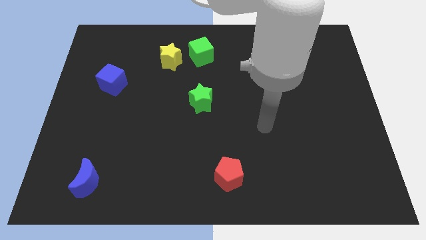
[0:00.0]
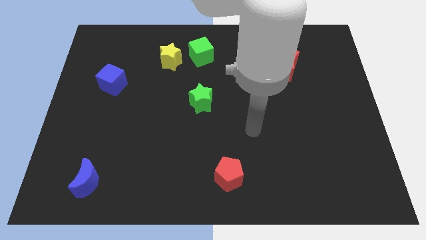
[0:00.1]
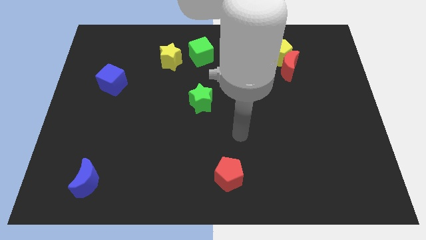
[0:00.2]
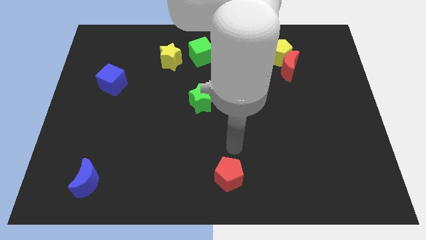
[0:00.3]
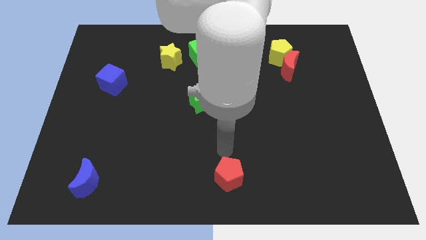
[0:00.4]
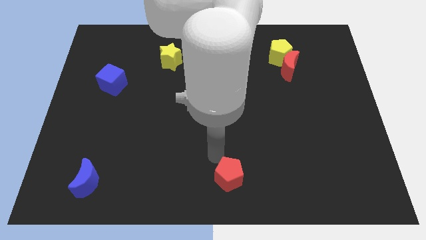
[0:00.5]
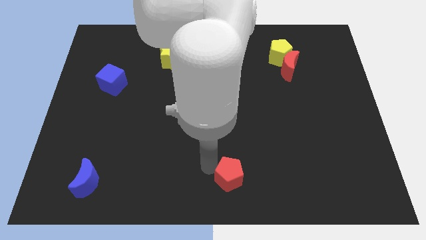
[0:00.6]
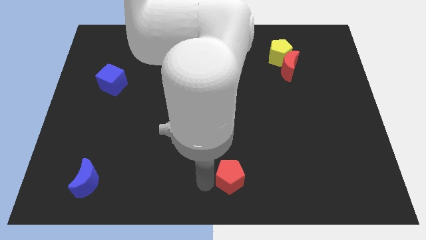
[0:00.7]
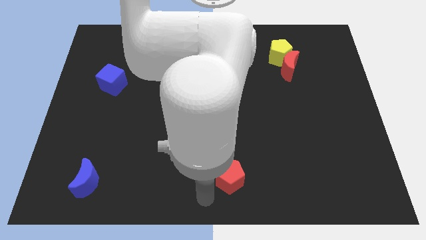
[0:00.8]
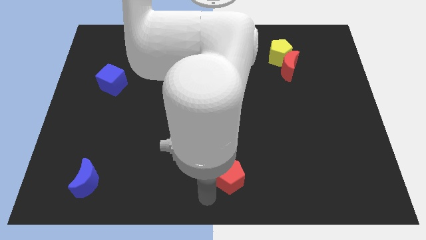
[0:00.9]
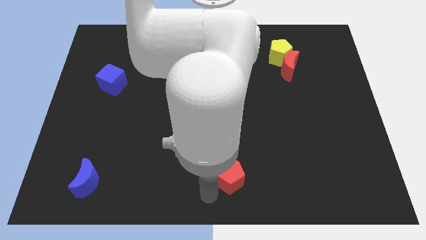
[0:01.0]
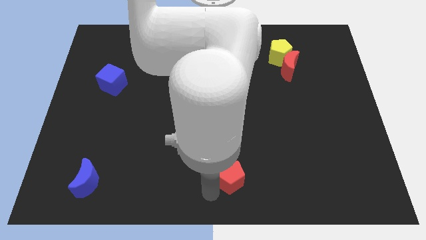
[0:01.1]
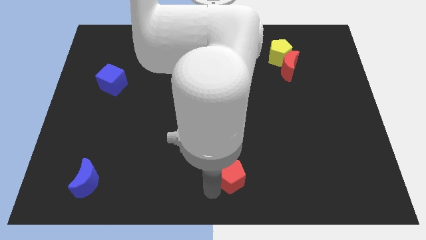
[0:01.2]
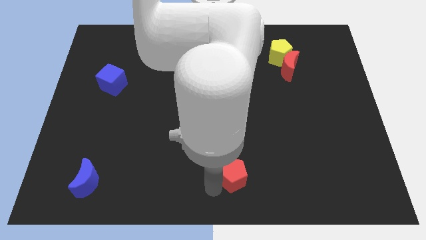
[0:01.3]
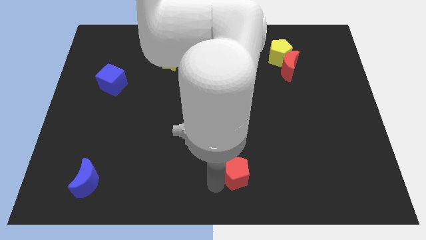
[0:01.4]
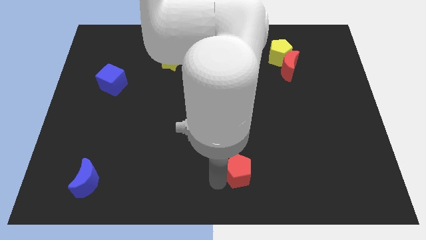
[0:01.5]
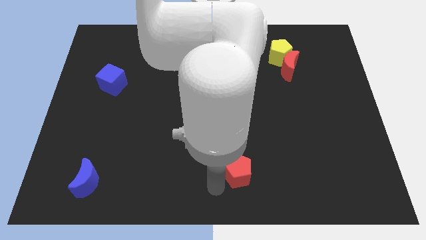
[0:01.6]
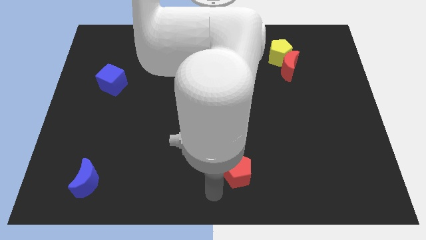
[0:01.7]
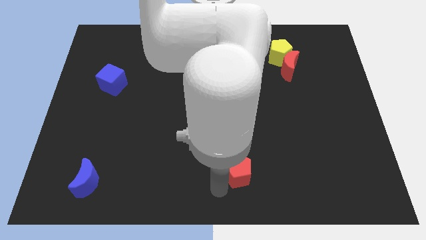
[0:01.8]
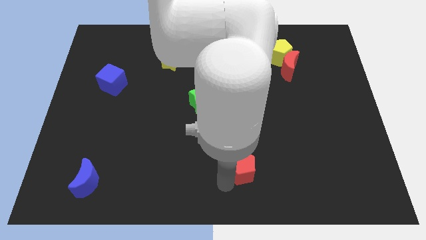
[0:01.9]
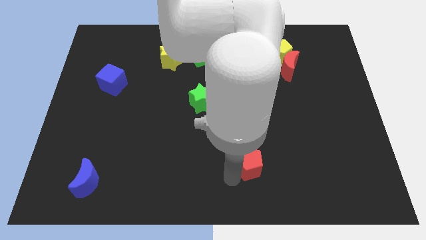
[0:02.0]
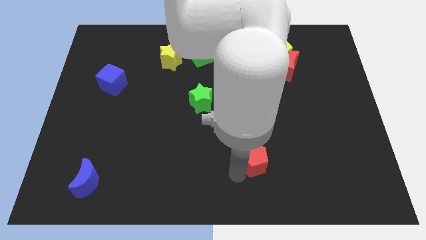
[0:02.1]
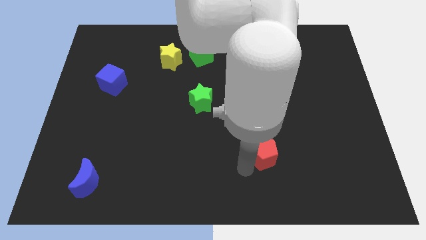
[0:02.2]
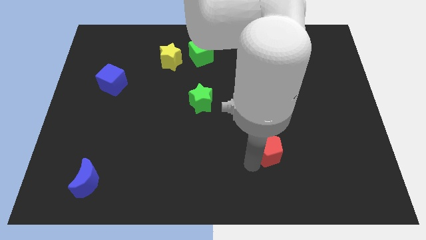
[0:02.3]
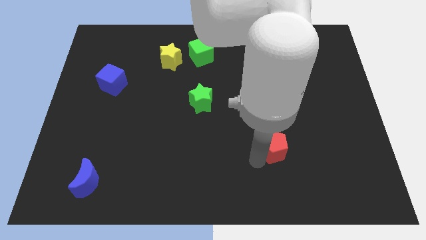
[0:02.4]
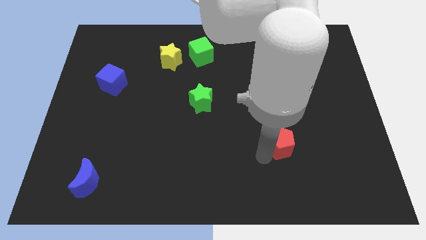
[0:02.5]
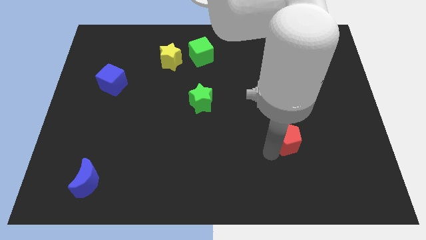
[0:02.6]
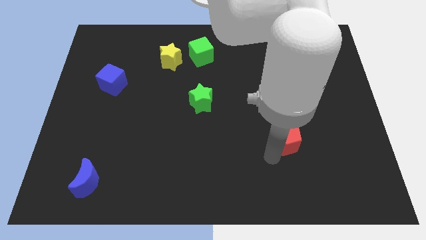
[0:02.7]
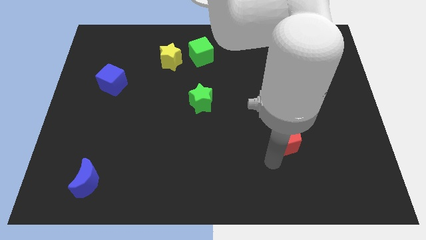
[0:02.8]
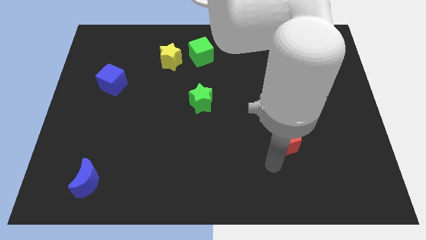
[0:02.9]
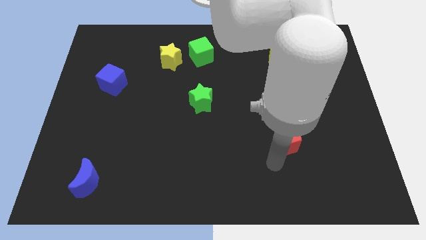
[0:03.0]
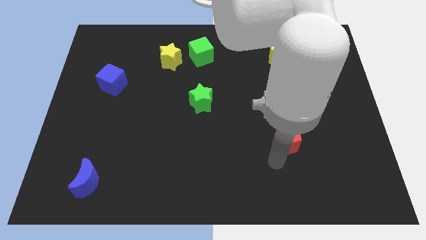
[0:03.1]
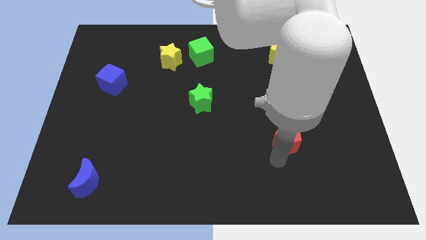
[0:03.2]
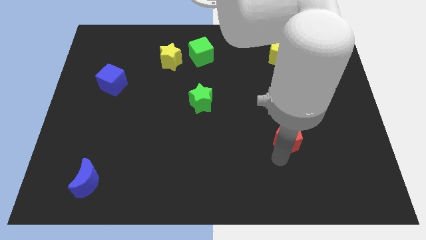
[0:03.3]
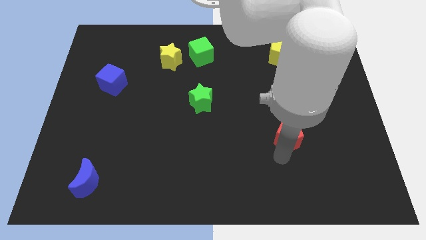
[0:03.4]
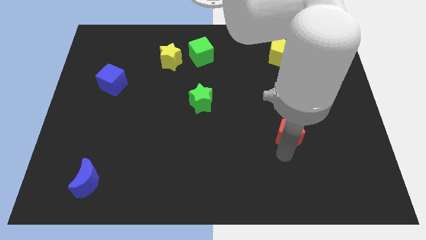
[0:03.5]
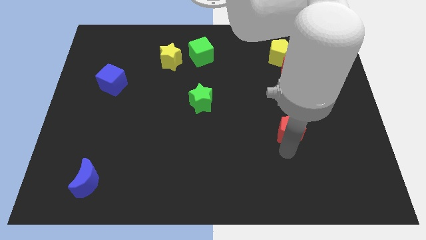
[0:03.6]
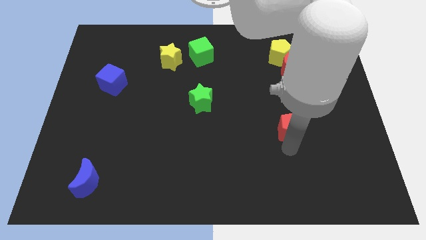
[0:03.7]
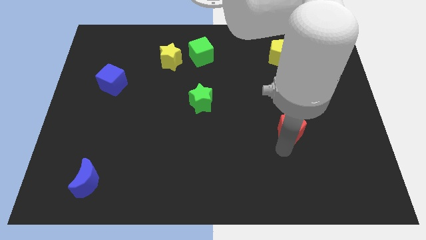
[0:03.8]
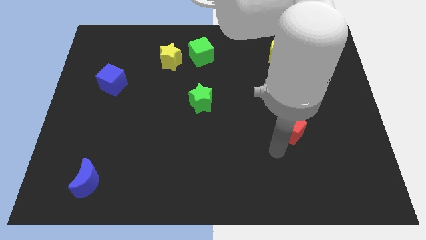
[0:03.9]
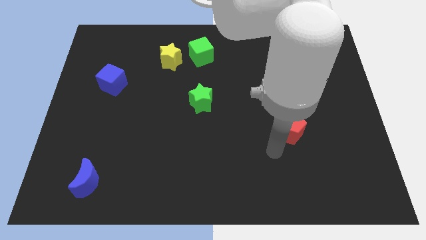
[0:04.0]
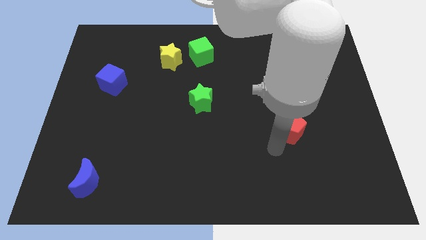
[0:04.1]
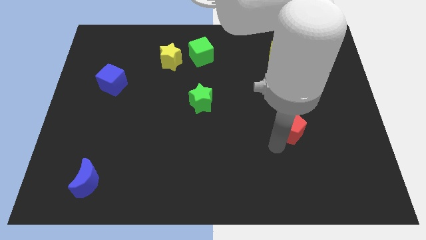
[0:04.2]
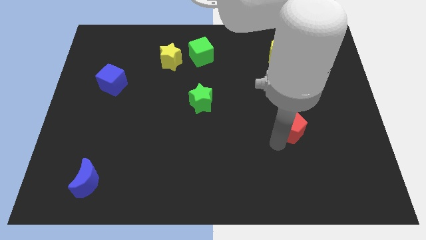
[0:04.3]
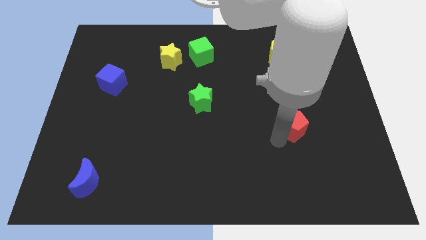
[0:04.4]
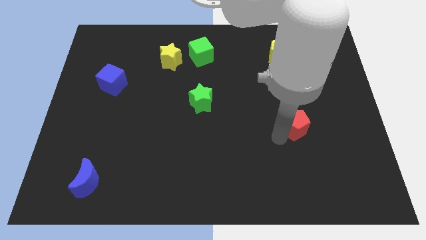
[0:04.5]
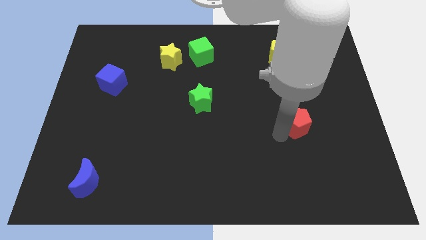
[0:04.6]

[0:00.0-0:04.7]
slide the red pentagon diagonally up and to the right

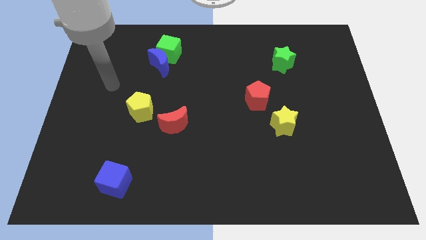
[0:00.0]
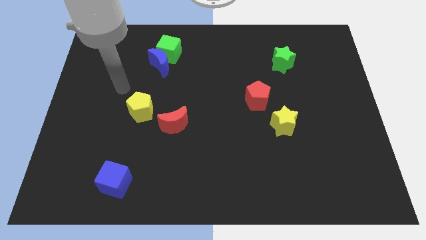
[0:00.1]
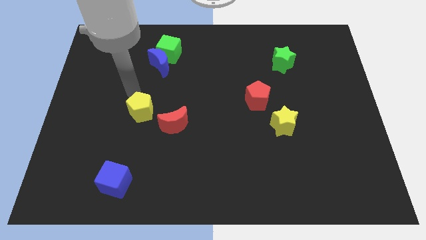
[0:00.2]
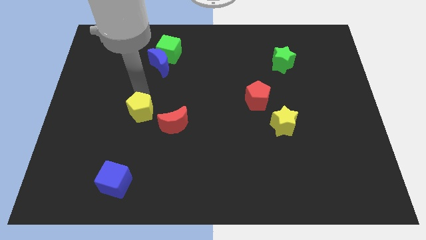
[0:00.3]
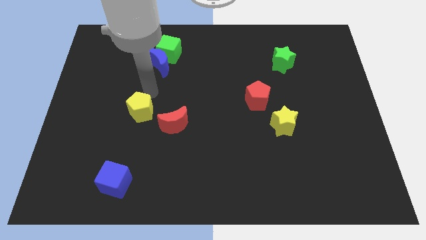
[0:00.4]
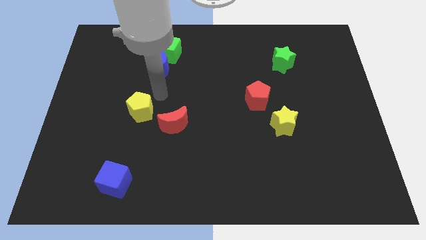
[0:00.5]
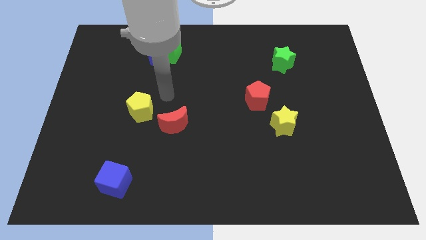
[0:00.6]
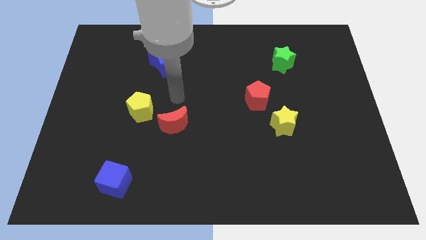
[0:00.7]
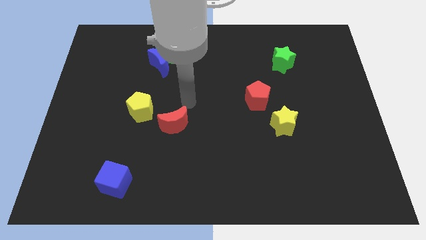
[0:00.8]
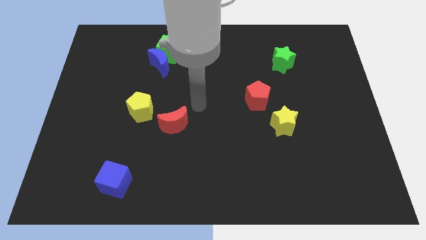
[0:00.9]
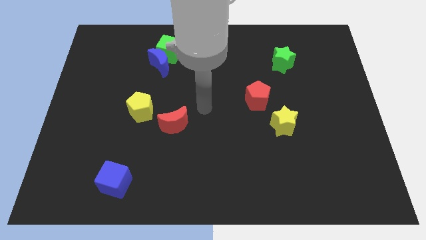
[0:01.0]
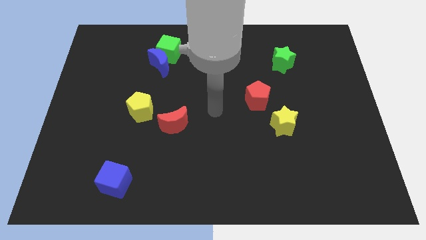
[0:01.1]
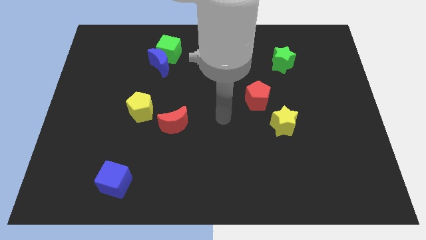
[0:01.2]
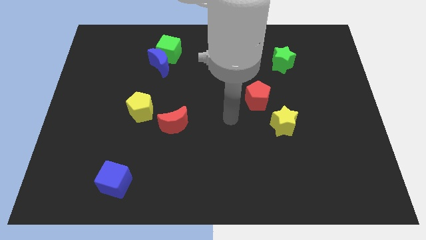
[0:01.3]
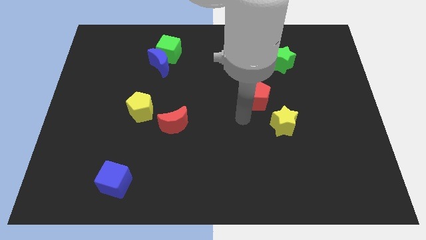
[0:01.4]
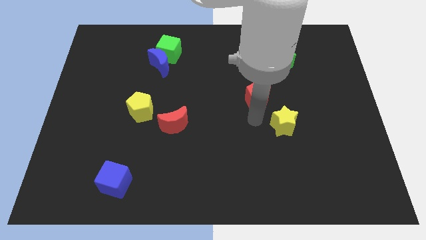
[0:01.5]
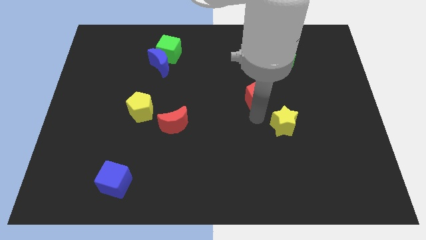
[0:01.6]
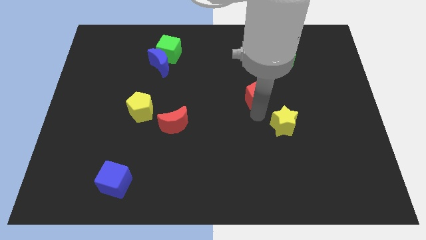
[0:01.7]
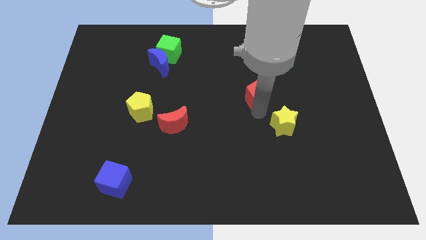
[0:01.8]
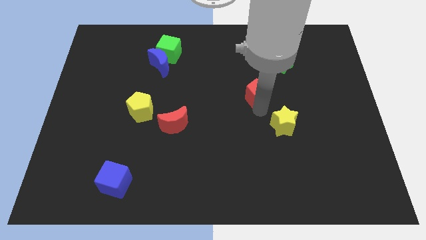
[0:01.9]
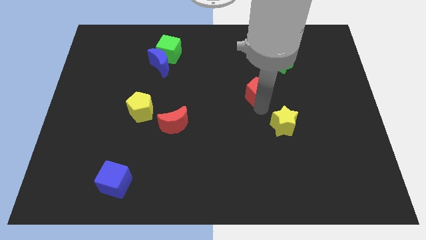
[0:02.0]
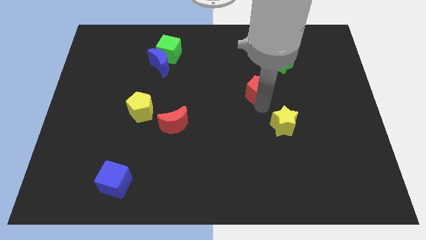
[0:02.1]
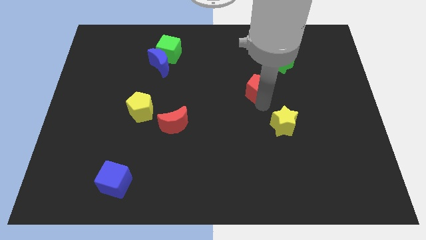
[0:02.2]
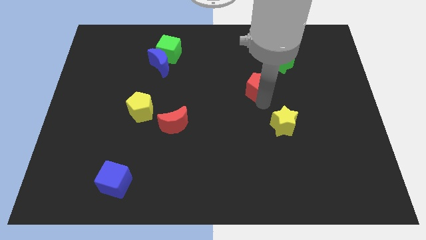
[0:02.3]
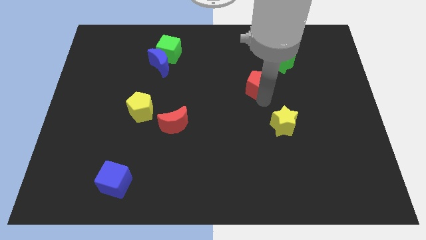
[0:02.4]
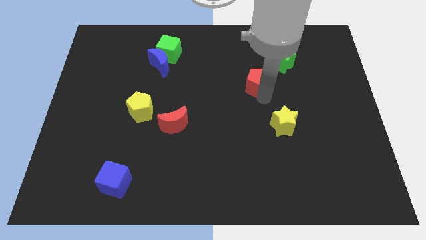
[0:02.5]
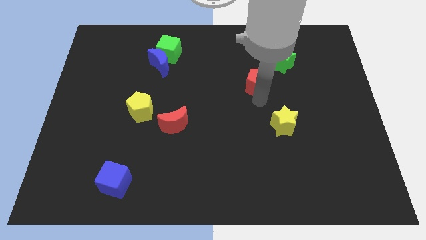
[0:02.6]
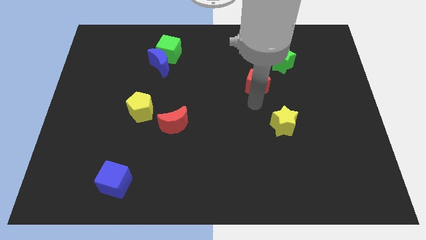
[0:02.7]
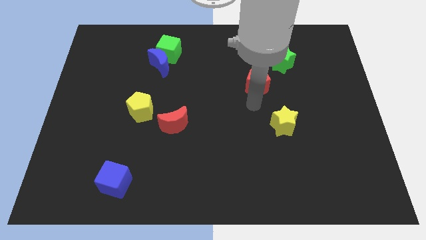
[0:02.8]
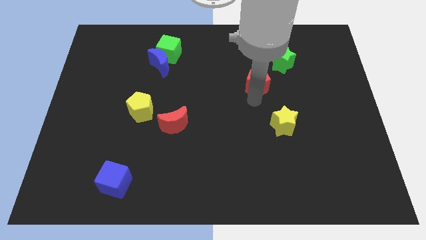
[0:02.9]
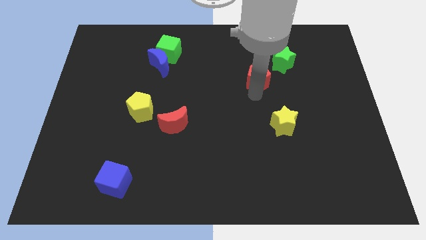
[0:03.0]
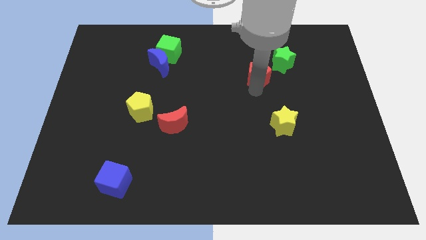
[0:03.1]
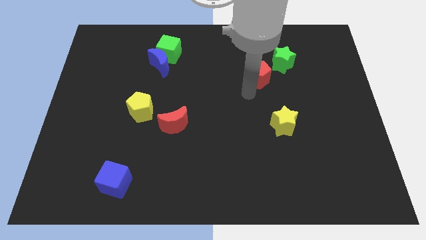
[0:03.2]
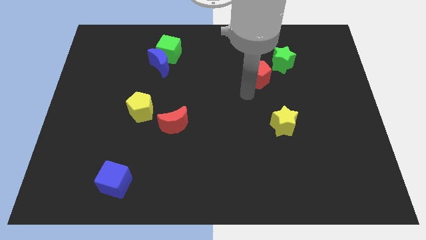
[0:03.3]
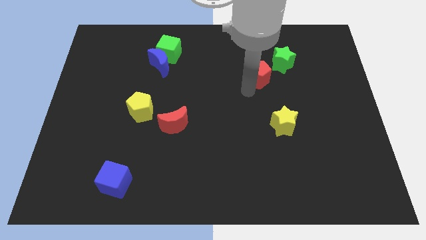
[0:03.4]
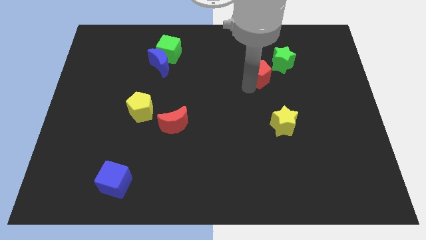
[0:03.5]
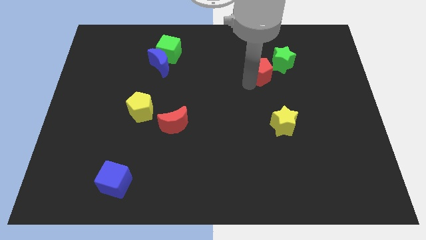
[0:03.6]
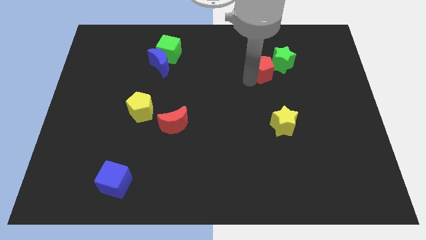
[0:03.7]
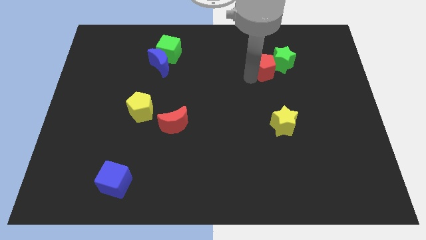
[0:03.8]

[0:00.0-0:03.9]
move the red pentagon up and to the right diagonally somewhat
